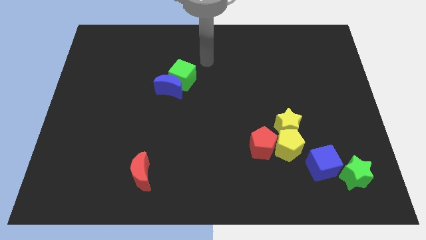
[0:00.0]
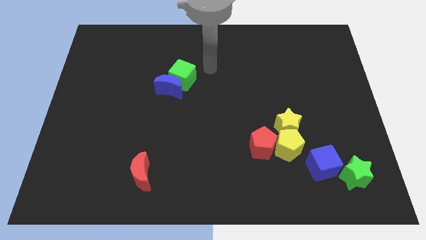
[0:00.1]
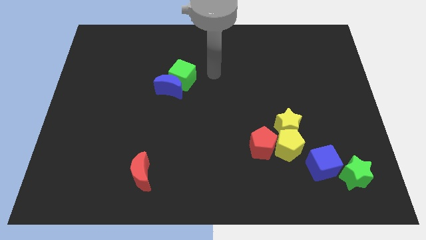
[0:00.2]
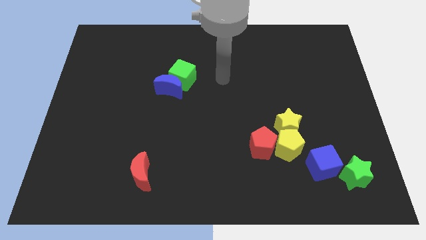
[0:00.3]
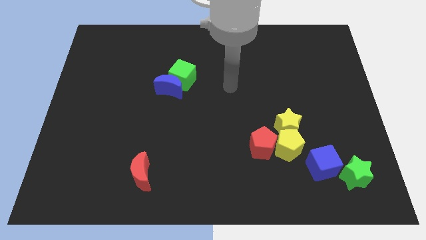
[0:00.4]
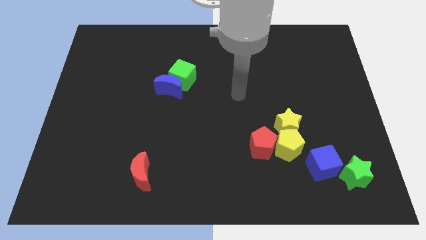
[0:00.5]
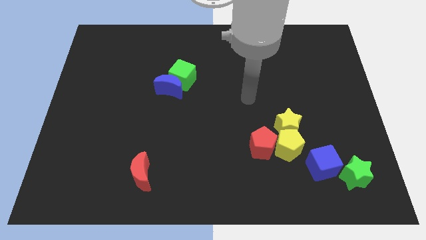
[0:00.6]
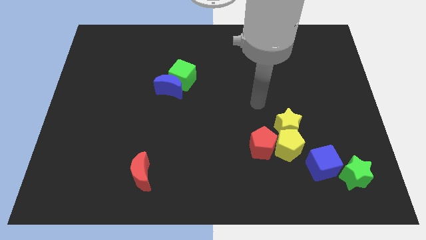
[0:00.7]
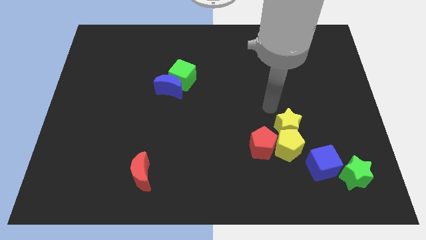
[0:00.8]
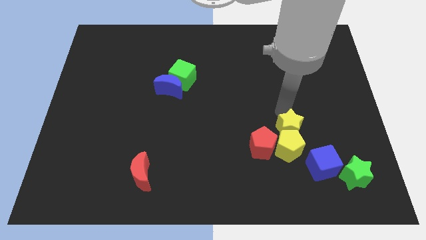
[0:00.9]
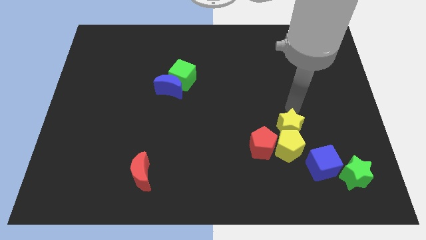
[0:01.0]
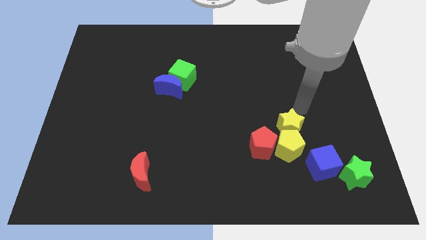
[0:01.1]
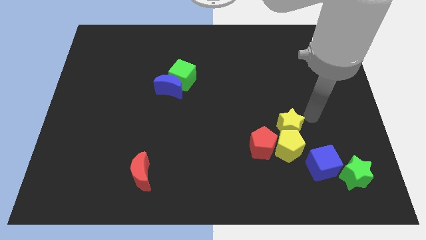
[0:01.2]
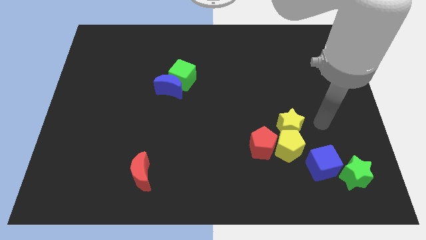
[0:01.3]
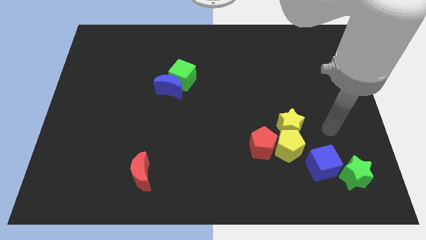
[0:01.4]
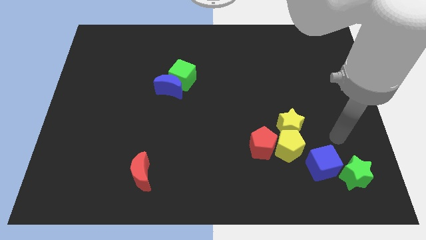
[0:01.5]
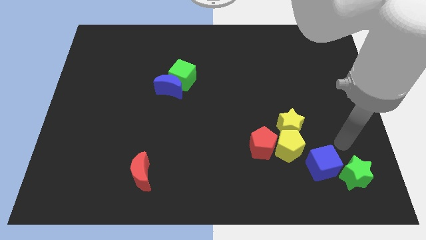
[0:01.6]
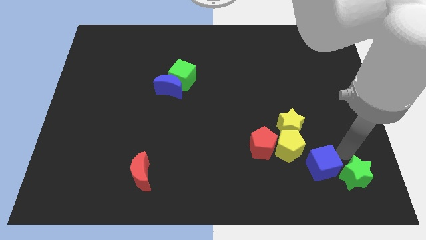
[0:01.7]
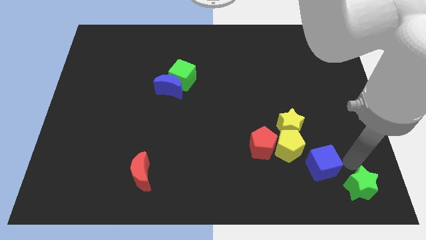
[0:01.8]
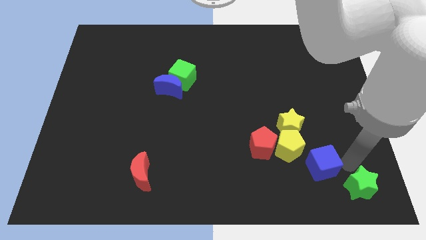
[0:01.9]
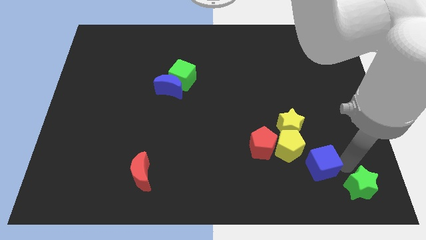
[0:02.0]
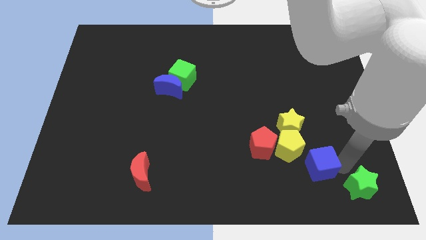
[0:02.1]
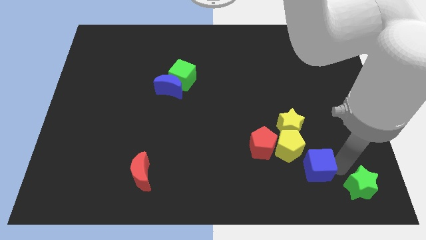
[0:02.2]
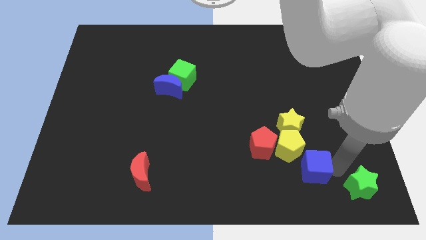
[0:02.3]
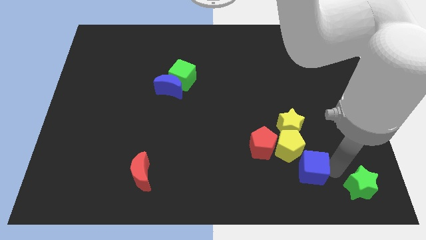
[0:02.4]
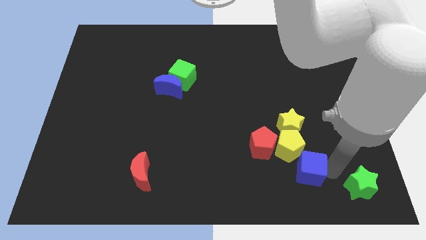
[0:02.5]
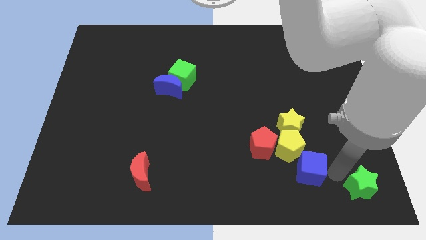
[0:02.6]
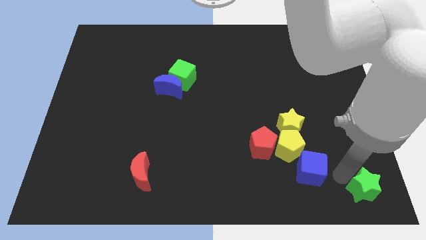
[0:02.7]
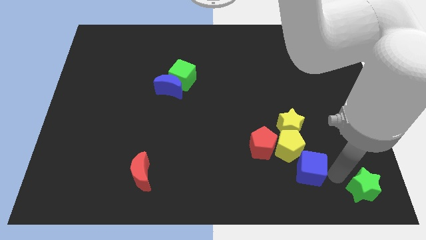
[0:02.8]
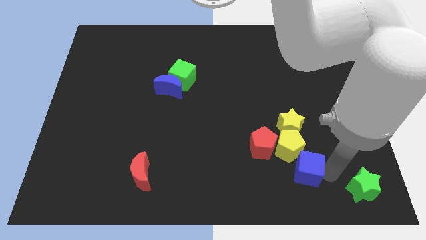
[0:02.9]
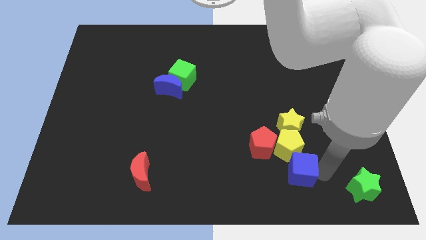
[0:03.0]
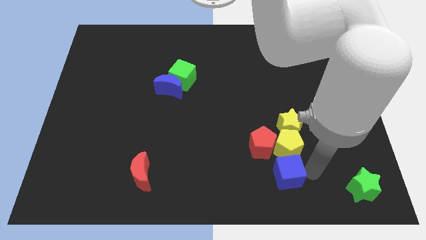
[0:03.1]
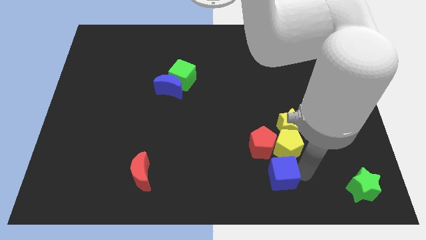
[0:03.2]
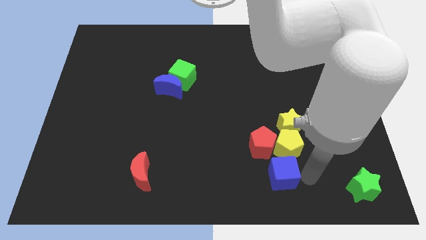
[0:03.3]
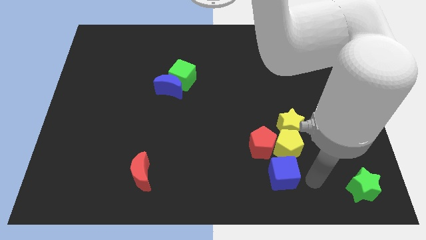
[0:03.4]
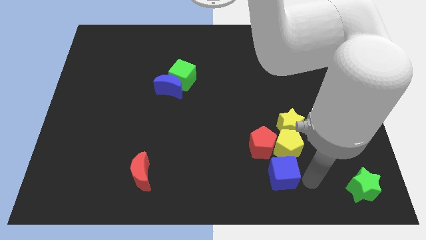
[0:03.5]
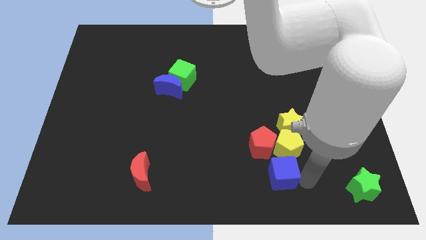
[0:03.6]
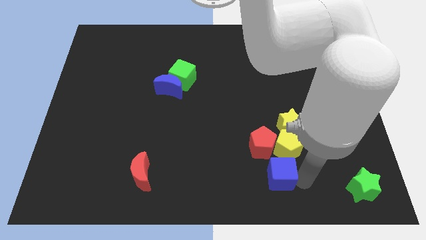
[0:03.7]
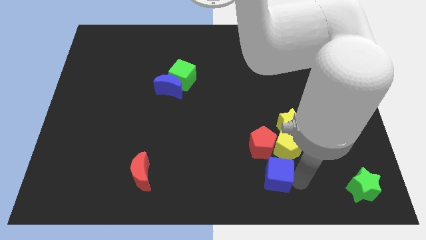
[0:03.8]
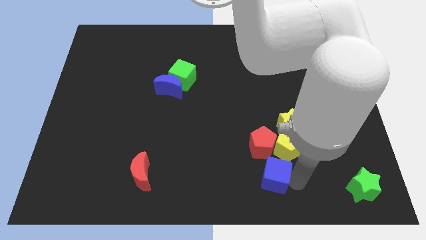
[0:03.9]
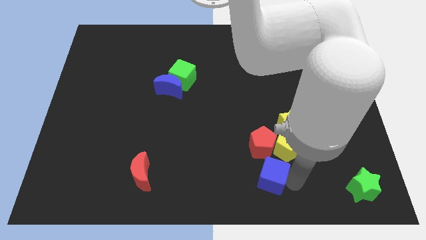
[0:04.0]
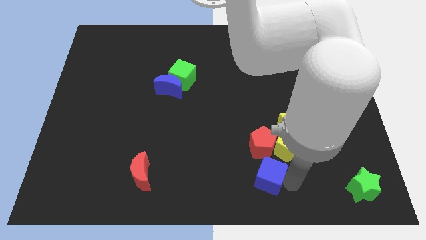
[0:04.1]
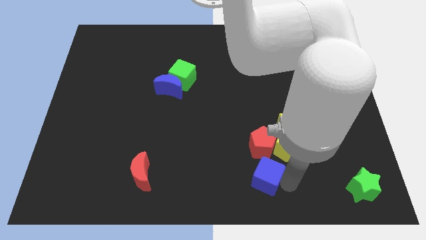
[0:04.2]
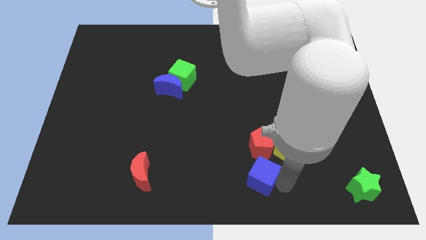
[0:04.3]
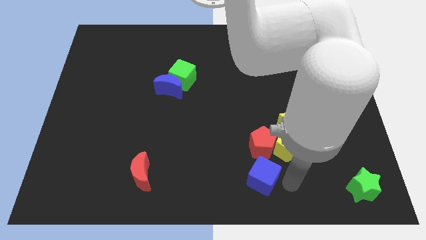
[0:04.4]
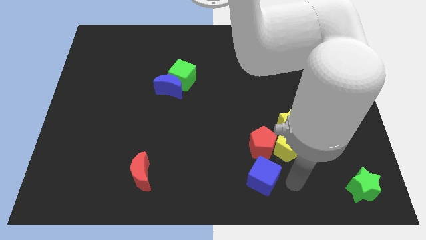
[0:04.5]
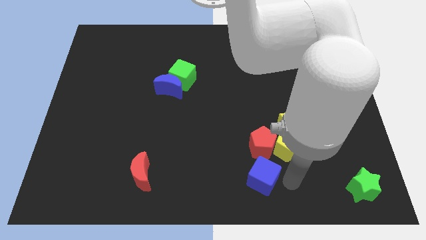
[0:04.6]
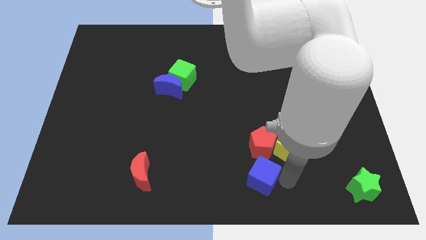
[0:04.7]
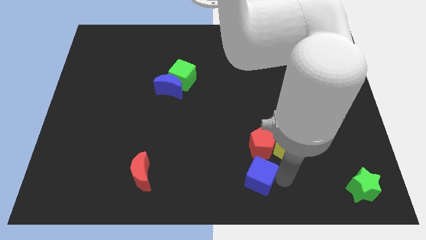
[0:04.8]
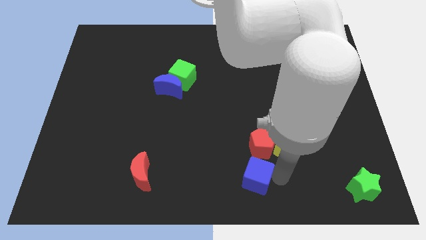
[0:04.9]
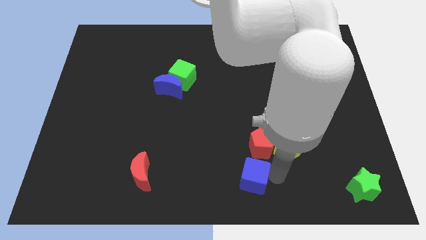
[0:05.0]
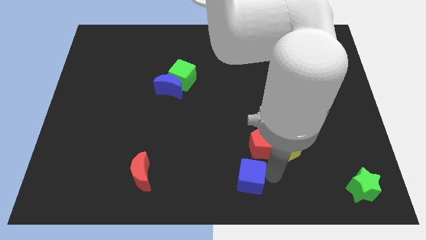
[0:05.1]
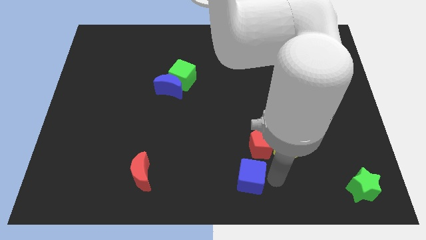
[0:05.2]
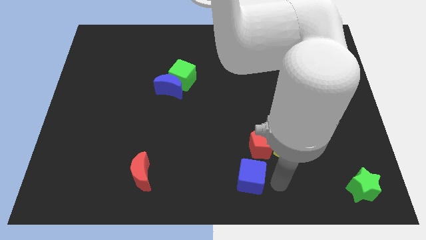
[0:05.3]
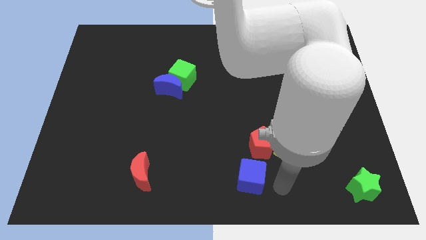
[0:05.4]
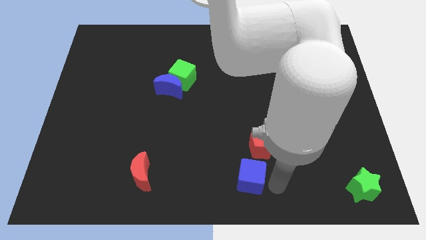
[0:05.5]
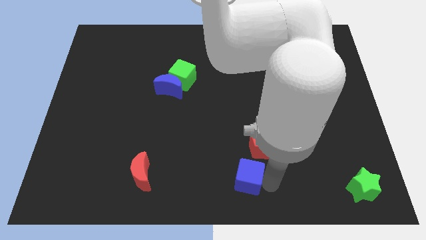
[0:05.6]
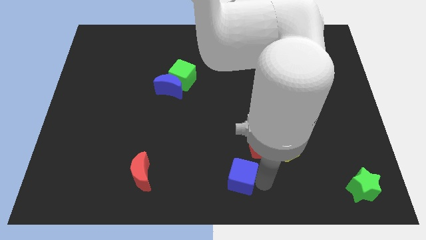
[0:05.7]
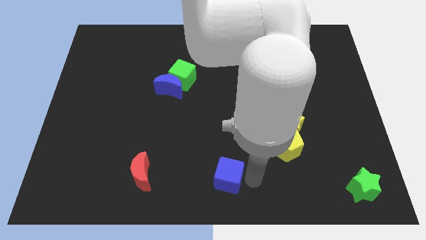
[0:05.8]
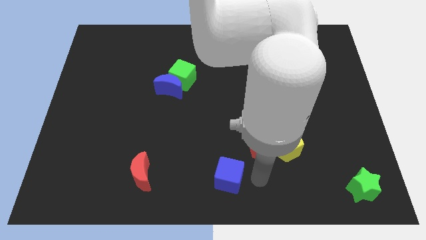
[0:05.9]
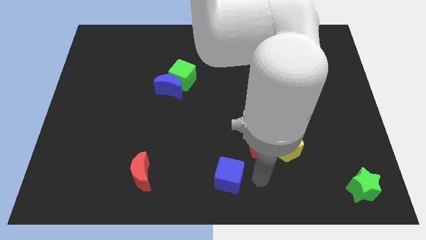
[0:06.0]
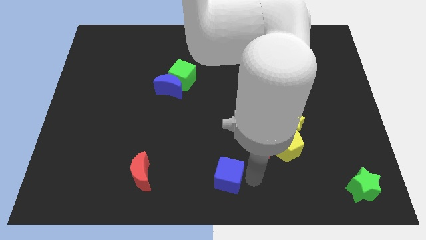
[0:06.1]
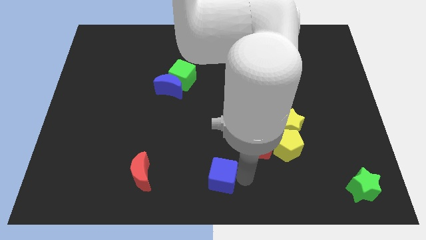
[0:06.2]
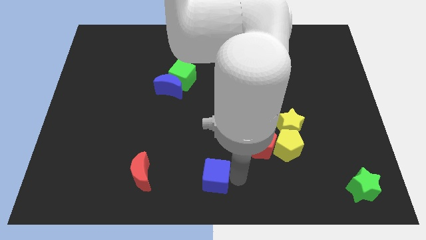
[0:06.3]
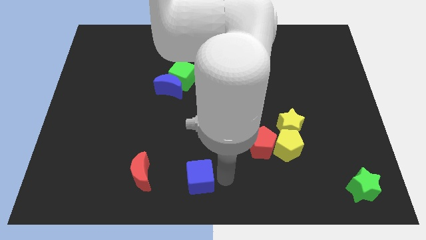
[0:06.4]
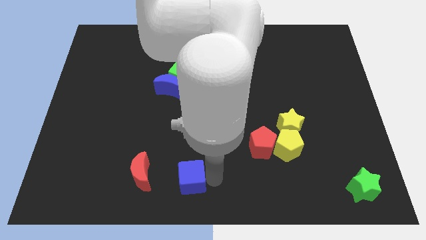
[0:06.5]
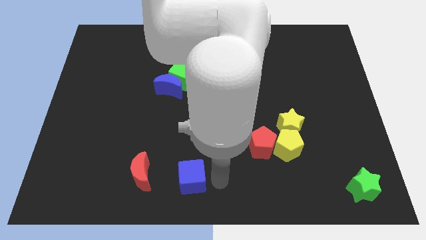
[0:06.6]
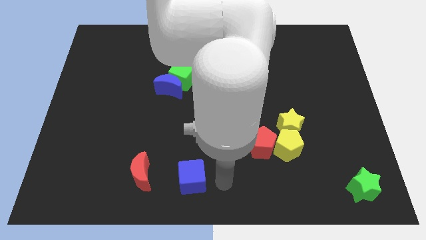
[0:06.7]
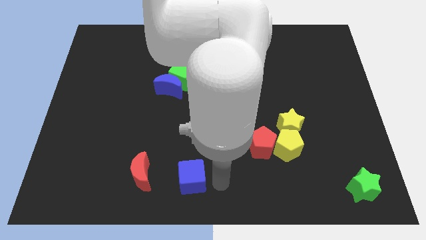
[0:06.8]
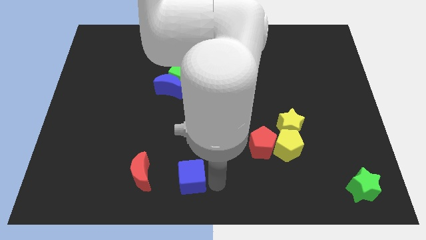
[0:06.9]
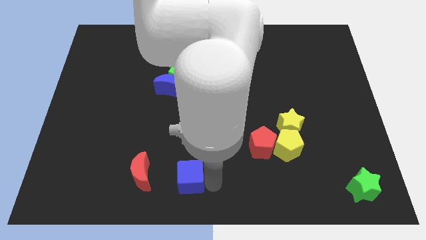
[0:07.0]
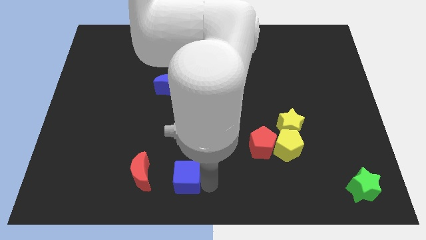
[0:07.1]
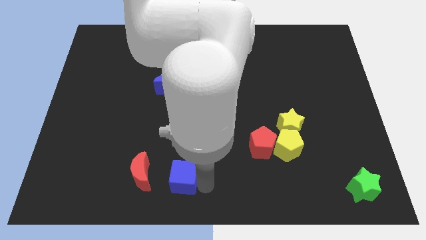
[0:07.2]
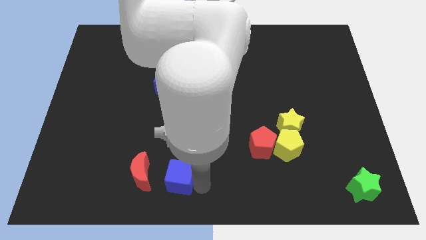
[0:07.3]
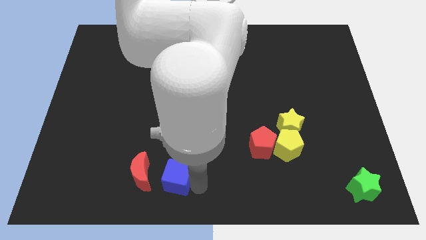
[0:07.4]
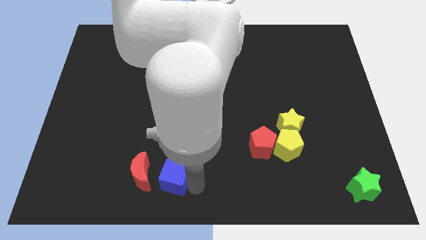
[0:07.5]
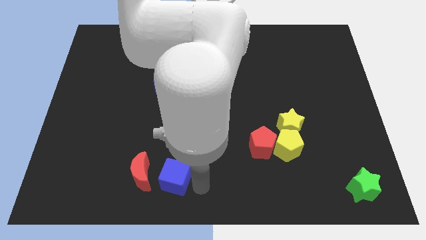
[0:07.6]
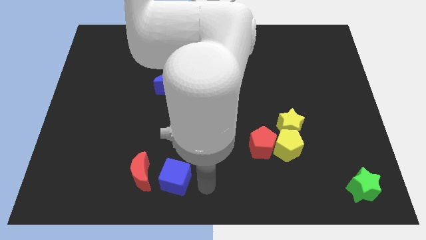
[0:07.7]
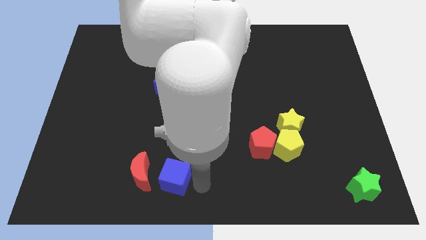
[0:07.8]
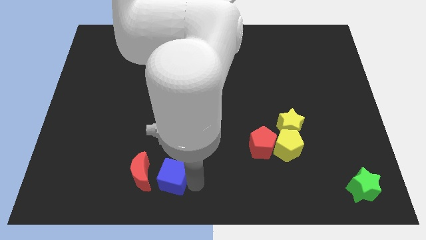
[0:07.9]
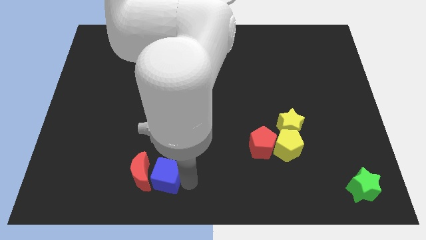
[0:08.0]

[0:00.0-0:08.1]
slide the blue cube next to the red moon
